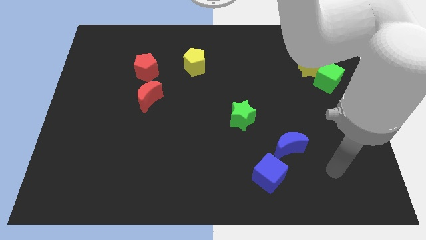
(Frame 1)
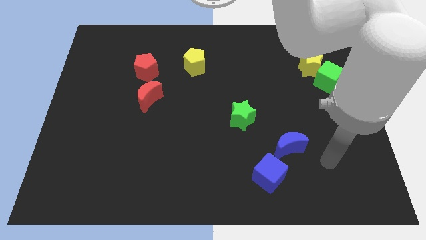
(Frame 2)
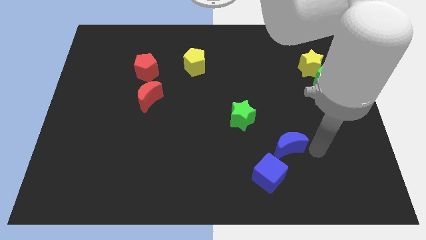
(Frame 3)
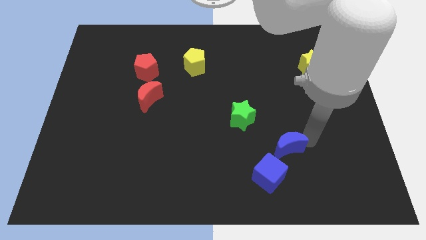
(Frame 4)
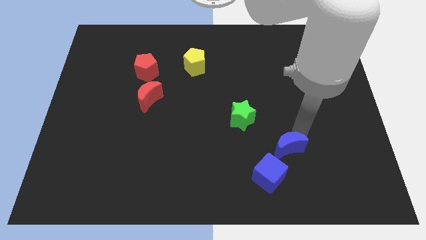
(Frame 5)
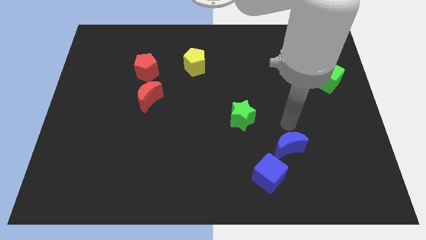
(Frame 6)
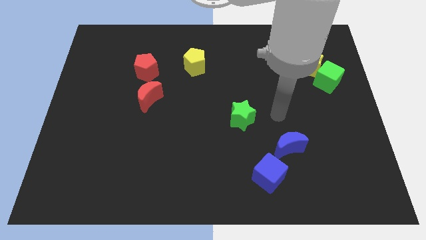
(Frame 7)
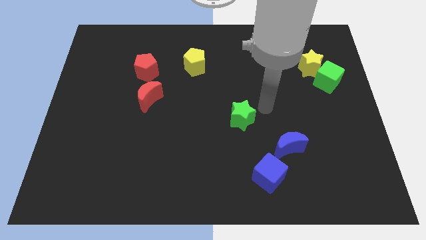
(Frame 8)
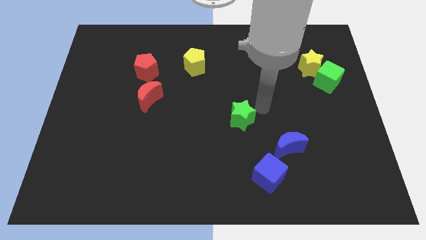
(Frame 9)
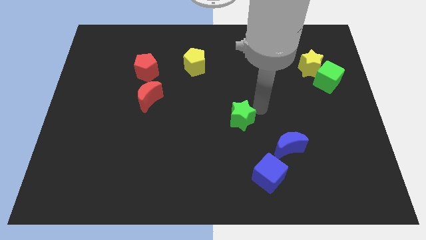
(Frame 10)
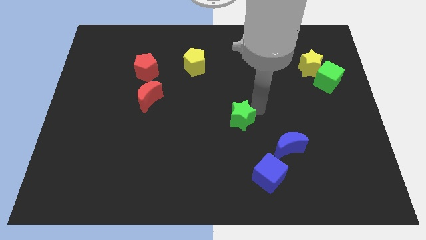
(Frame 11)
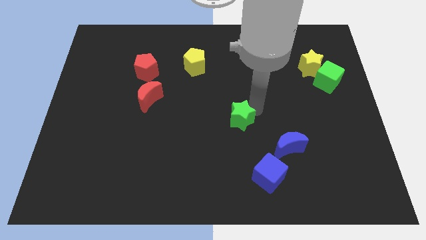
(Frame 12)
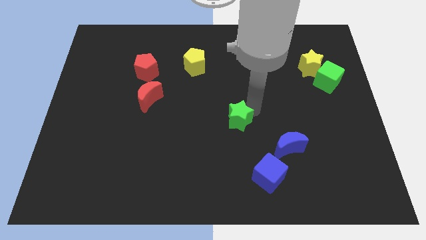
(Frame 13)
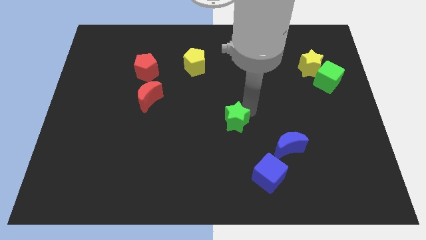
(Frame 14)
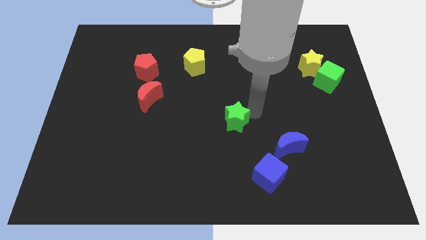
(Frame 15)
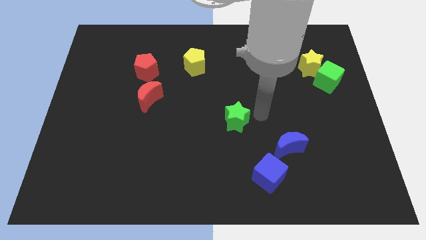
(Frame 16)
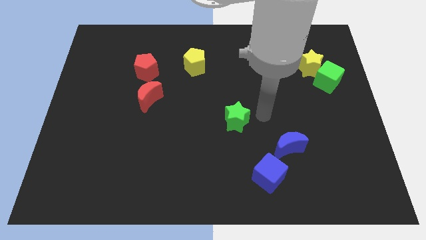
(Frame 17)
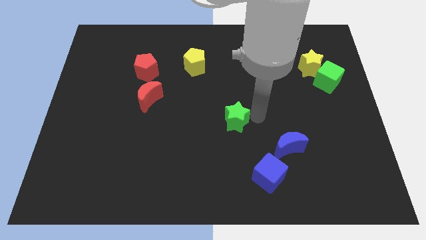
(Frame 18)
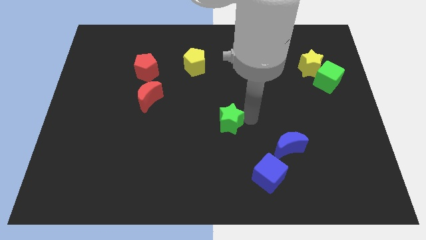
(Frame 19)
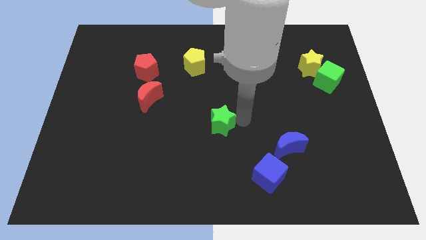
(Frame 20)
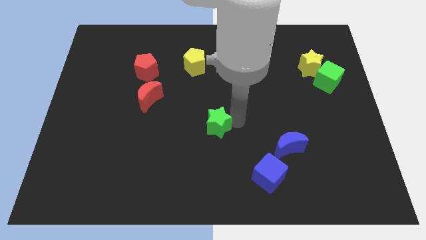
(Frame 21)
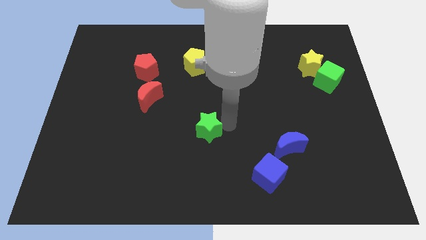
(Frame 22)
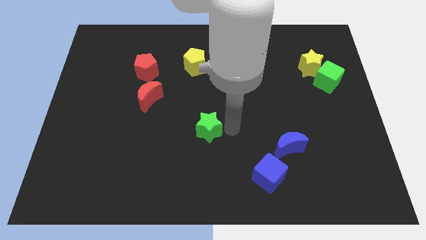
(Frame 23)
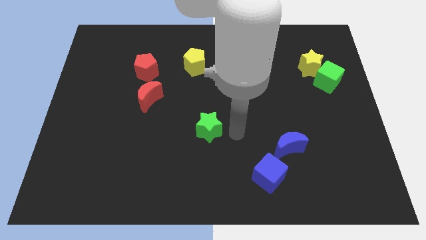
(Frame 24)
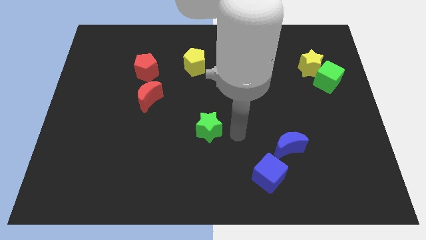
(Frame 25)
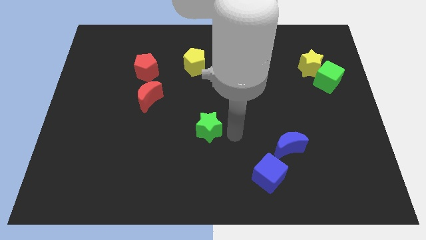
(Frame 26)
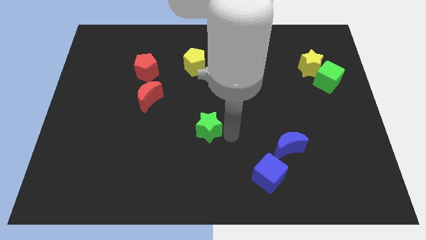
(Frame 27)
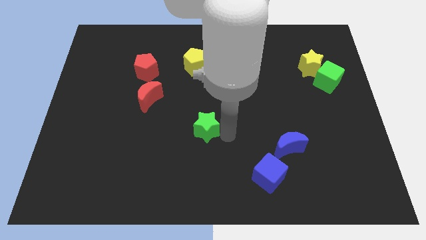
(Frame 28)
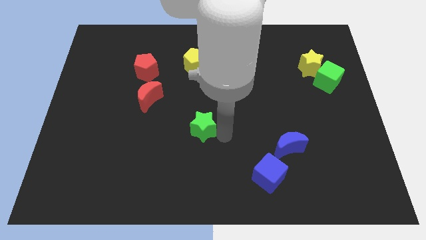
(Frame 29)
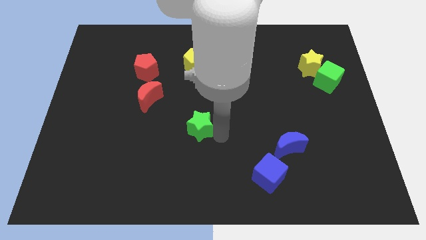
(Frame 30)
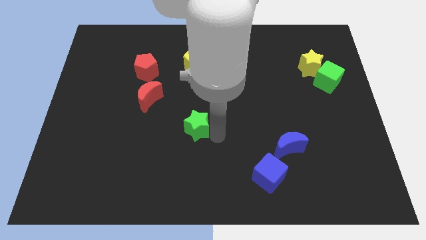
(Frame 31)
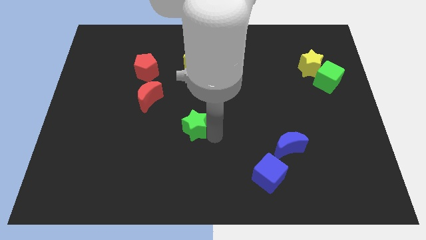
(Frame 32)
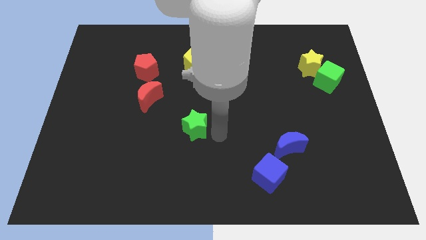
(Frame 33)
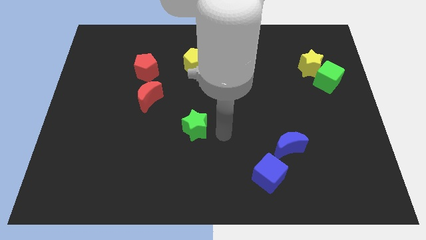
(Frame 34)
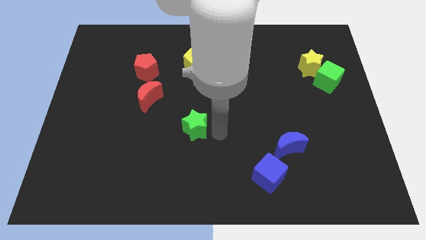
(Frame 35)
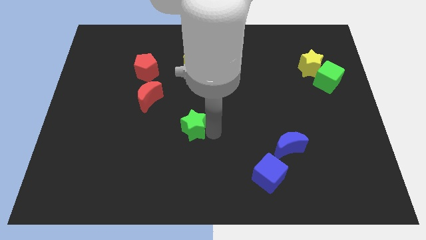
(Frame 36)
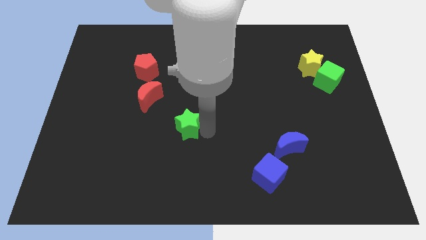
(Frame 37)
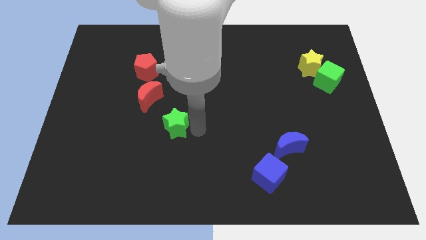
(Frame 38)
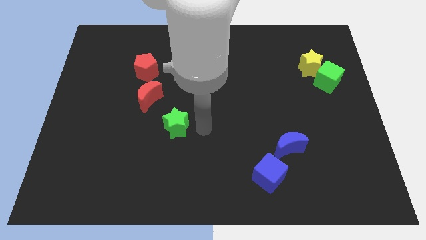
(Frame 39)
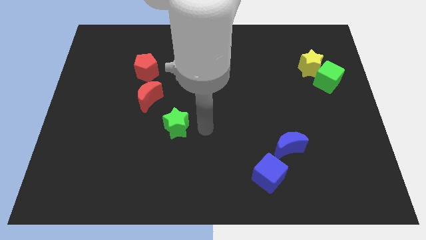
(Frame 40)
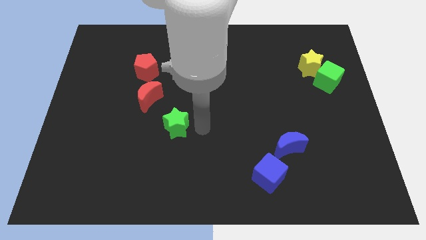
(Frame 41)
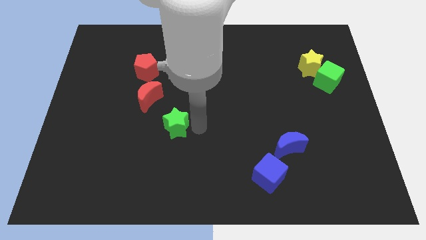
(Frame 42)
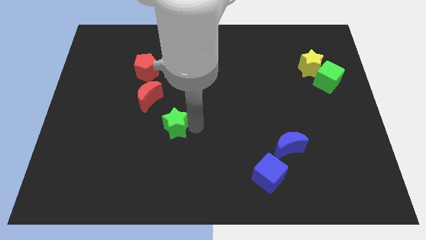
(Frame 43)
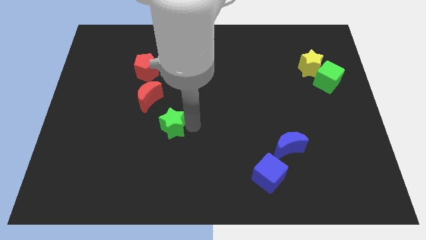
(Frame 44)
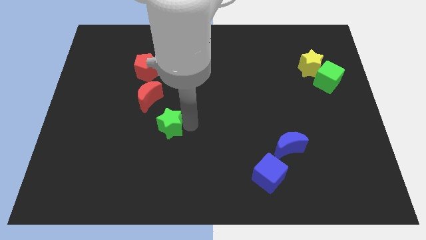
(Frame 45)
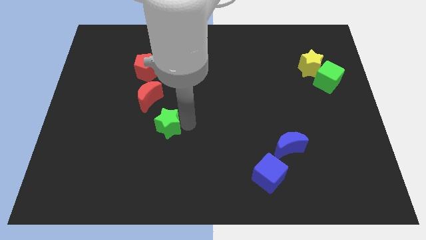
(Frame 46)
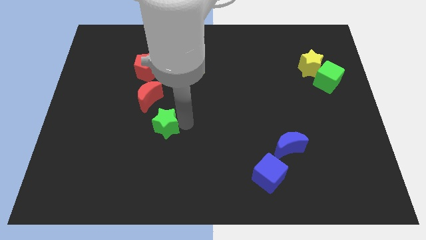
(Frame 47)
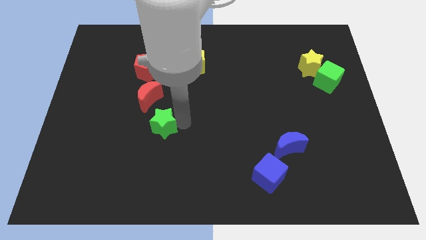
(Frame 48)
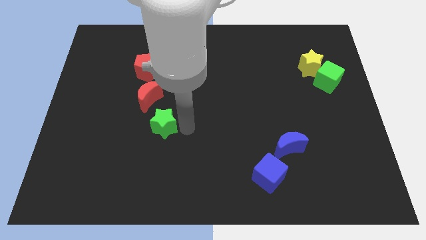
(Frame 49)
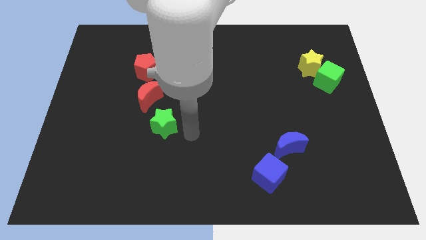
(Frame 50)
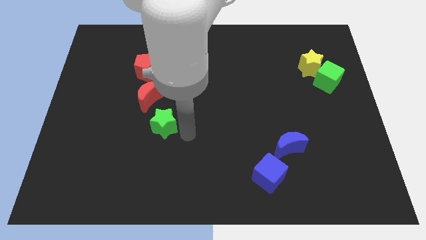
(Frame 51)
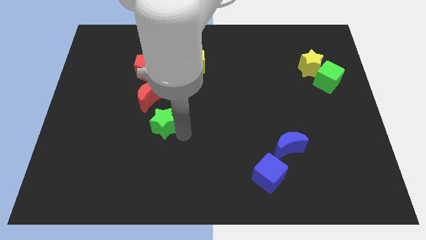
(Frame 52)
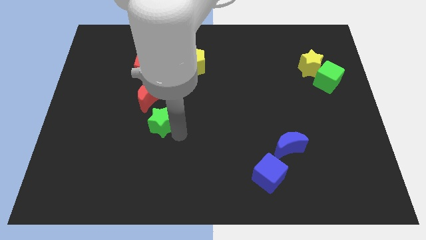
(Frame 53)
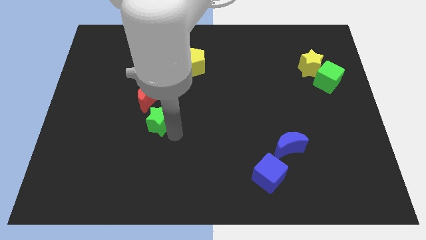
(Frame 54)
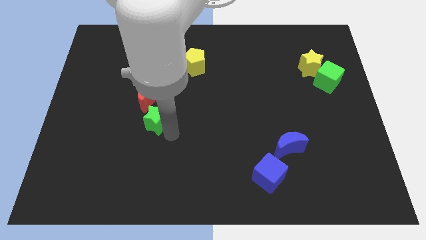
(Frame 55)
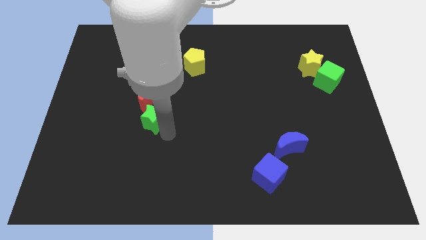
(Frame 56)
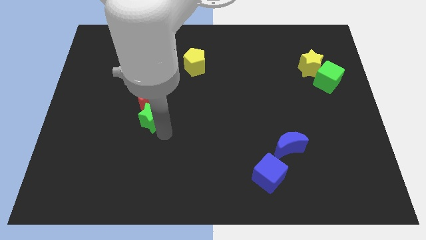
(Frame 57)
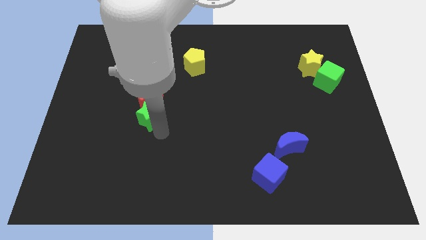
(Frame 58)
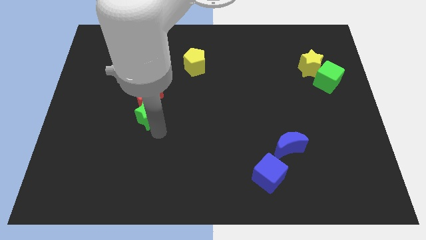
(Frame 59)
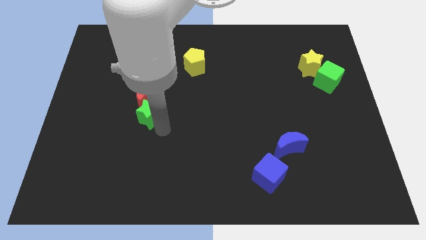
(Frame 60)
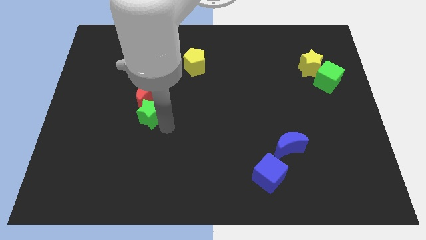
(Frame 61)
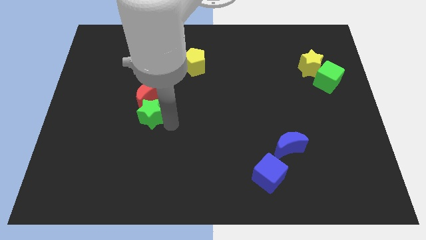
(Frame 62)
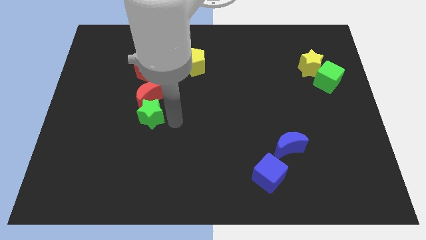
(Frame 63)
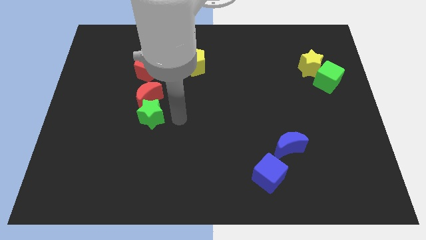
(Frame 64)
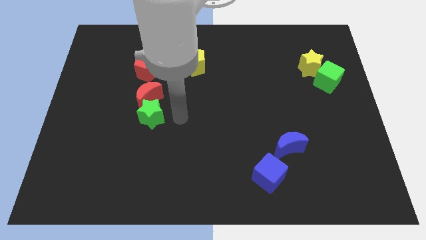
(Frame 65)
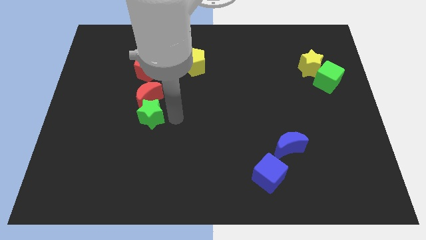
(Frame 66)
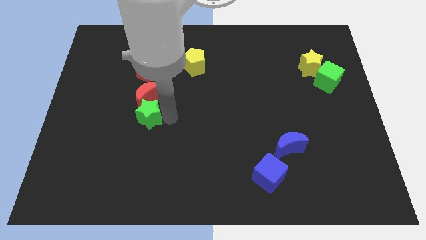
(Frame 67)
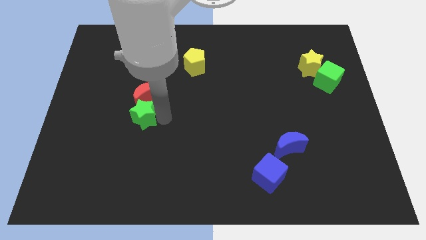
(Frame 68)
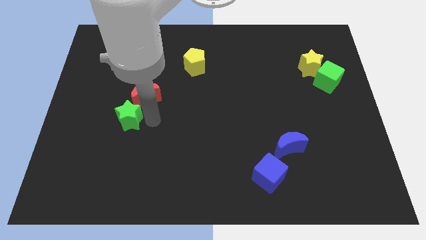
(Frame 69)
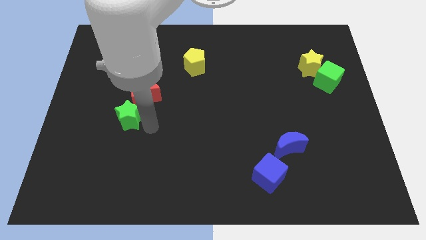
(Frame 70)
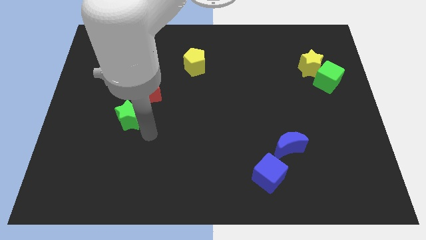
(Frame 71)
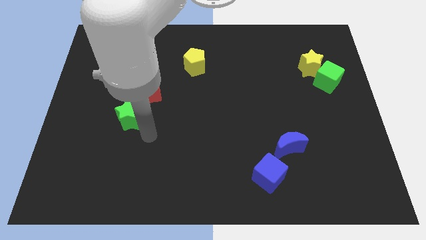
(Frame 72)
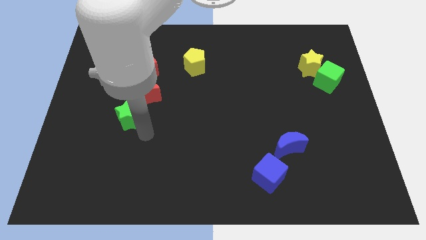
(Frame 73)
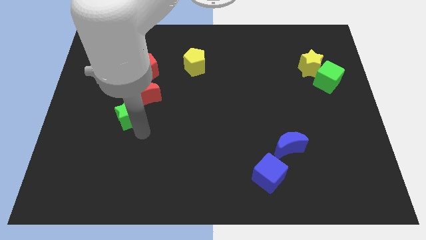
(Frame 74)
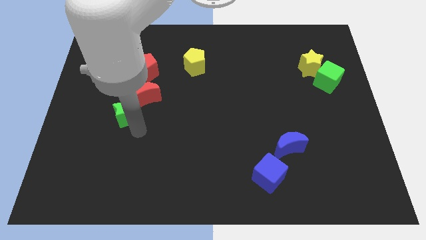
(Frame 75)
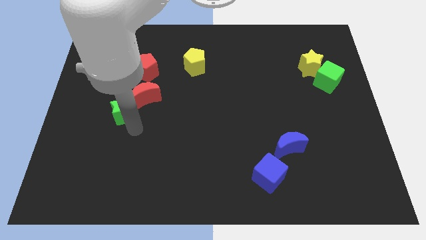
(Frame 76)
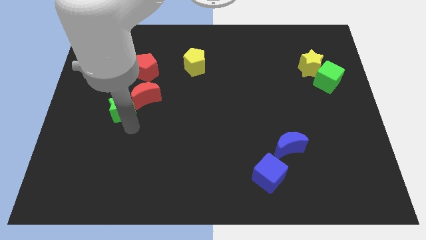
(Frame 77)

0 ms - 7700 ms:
put the green star to the left side of the red moon
